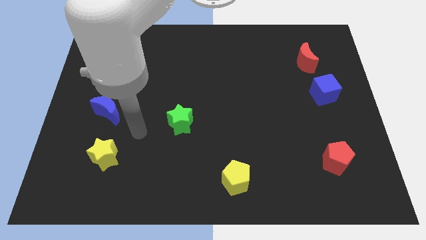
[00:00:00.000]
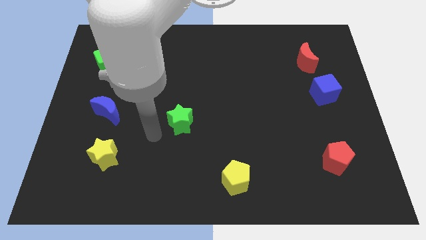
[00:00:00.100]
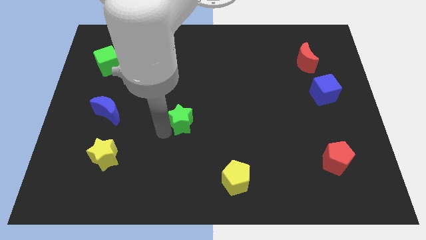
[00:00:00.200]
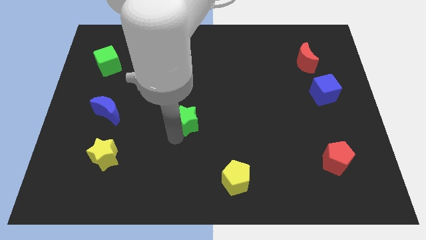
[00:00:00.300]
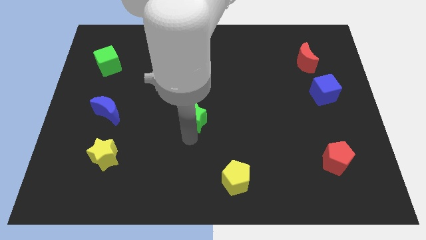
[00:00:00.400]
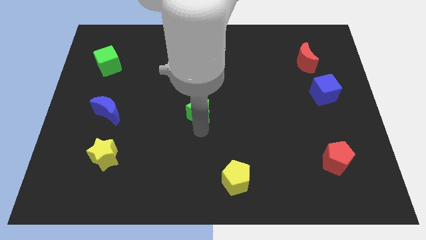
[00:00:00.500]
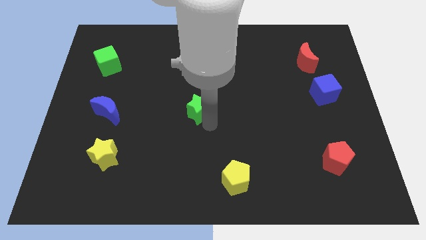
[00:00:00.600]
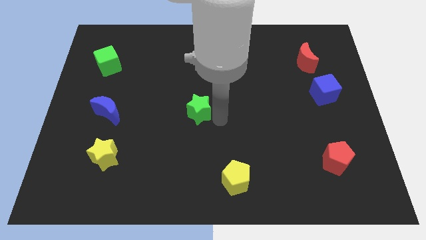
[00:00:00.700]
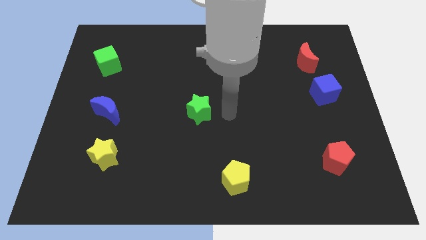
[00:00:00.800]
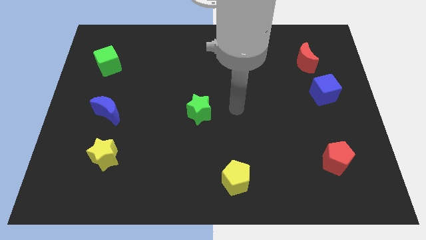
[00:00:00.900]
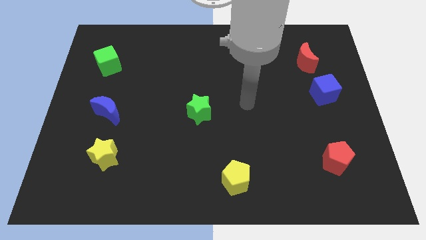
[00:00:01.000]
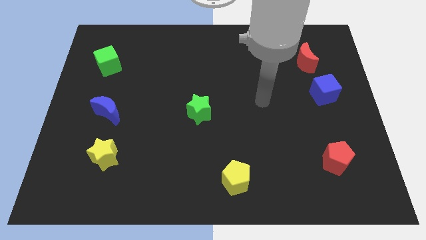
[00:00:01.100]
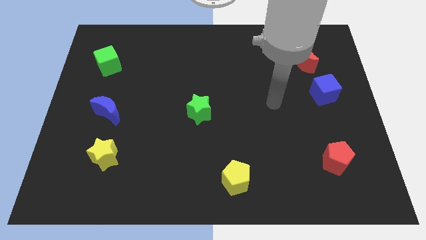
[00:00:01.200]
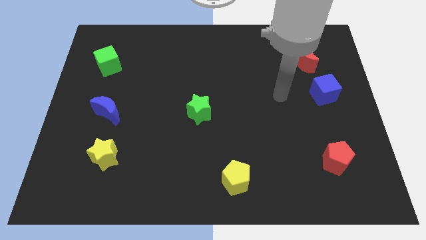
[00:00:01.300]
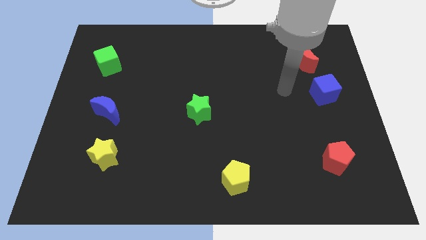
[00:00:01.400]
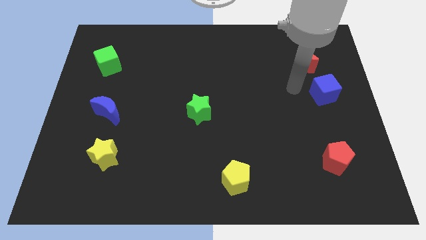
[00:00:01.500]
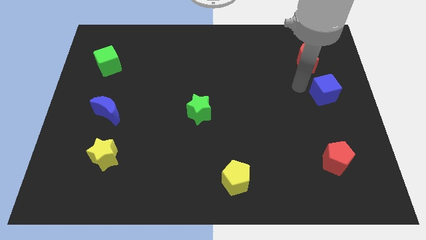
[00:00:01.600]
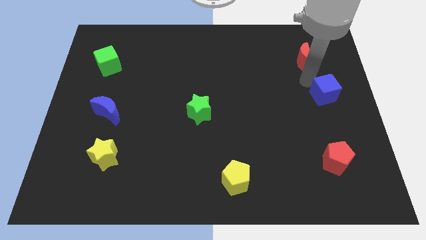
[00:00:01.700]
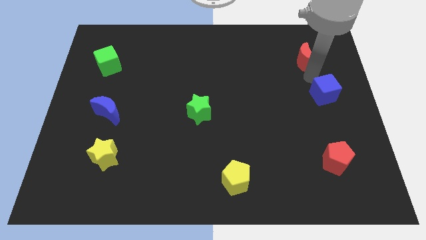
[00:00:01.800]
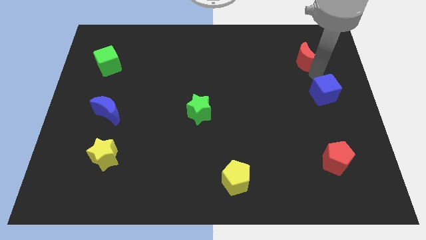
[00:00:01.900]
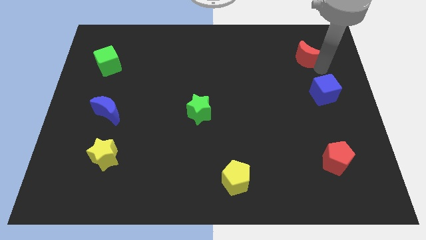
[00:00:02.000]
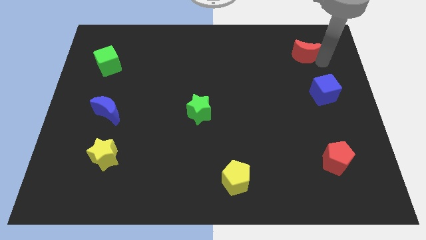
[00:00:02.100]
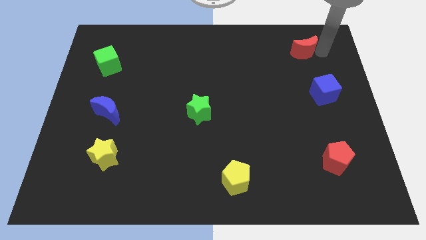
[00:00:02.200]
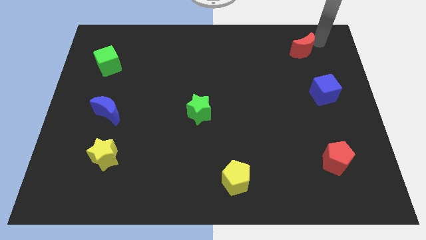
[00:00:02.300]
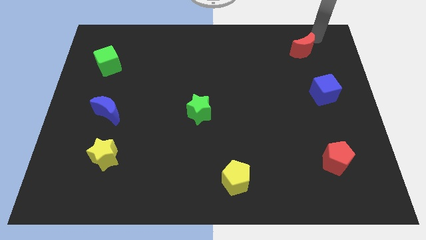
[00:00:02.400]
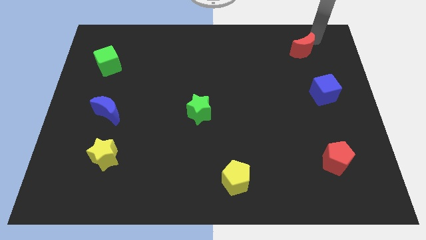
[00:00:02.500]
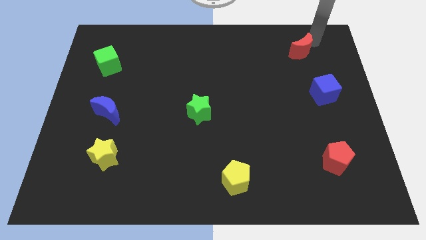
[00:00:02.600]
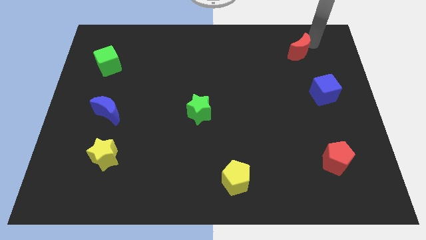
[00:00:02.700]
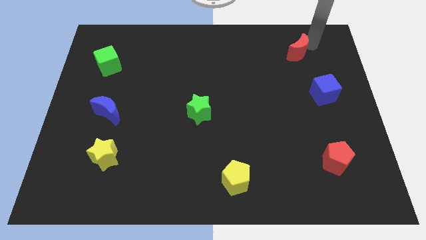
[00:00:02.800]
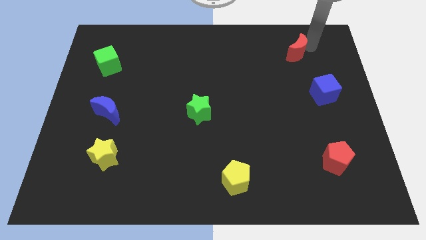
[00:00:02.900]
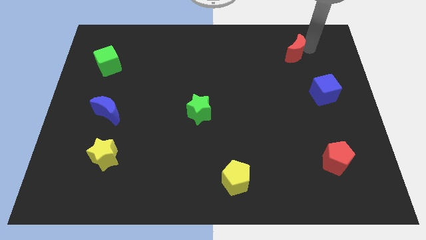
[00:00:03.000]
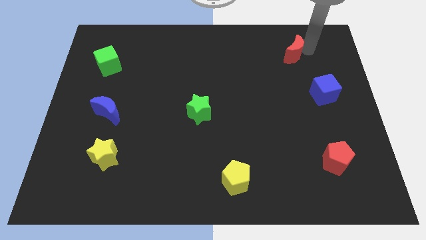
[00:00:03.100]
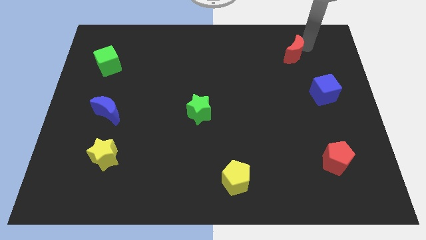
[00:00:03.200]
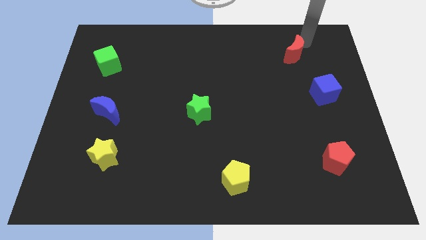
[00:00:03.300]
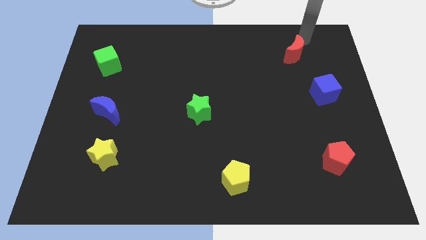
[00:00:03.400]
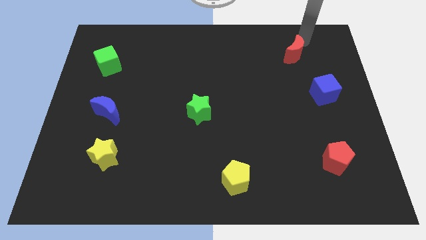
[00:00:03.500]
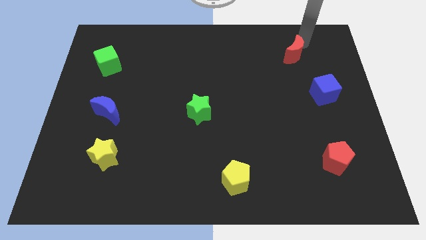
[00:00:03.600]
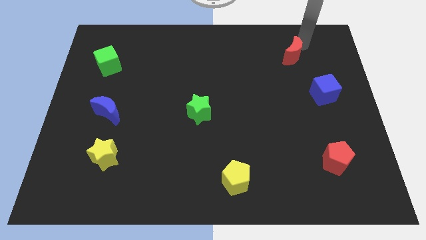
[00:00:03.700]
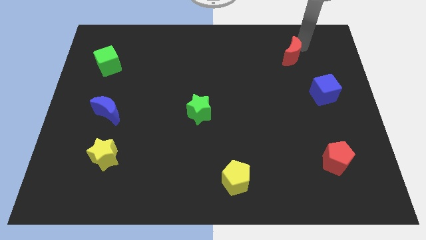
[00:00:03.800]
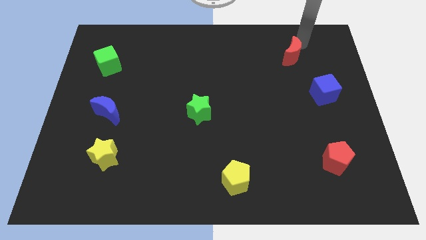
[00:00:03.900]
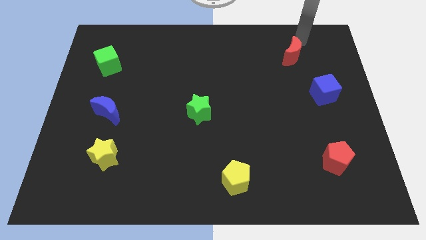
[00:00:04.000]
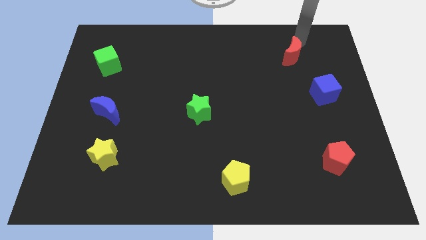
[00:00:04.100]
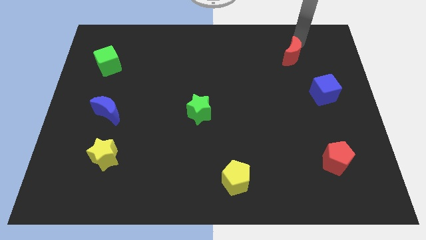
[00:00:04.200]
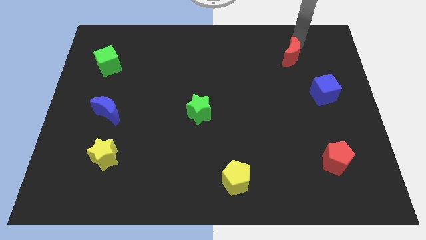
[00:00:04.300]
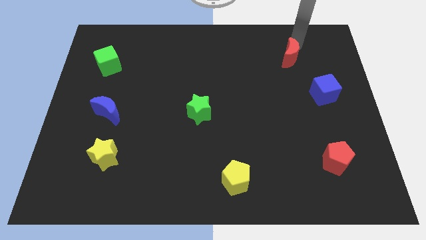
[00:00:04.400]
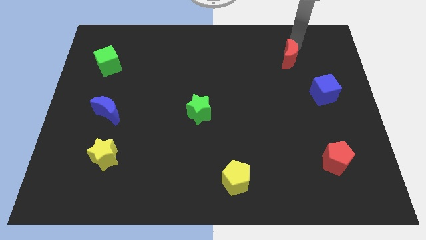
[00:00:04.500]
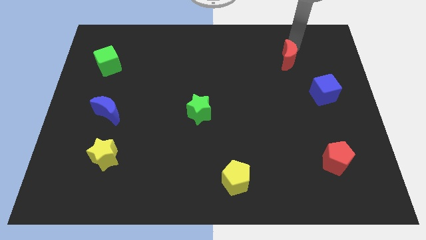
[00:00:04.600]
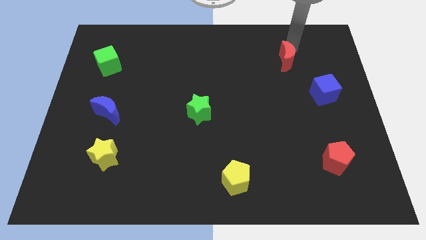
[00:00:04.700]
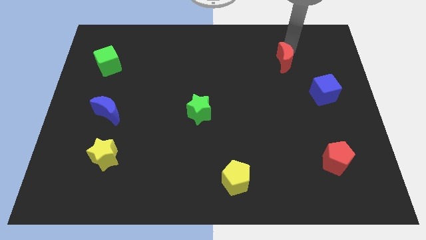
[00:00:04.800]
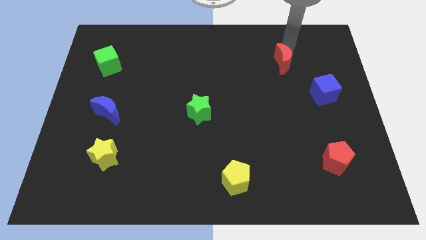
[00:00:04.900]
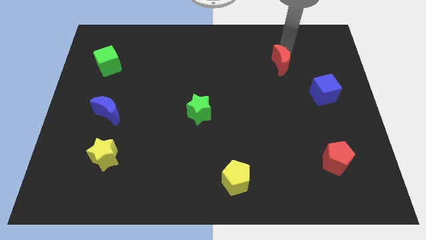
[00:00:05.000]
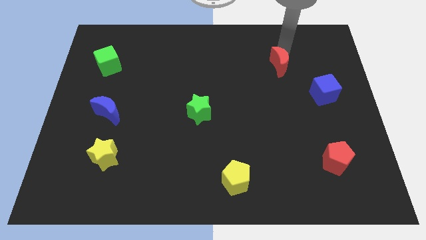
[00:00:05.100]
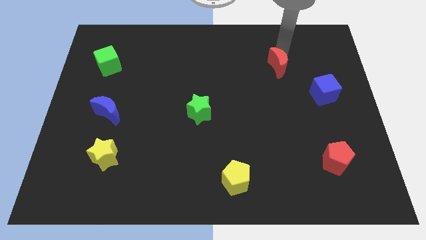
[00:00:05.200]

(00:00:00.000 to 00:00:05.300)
move the red moon a bit to the left

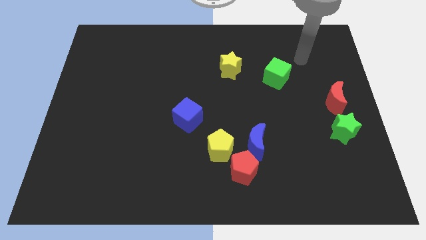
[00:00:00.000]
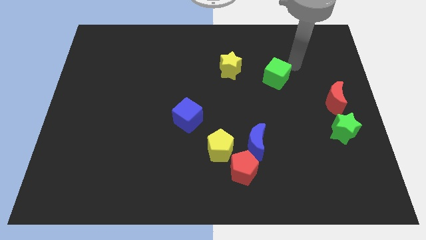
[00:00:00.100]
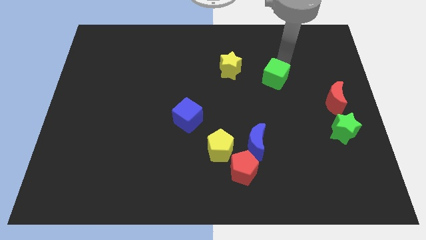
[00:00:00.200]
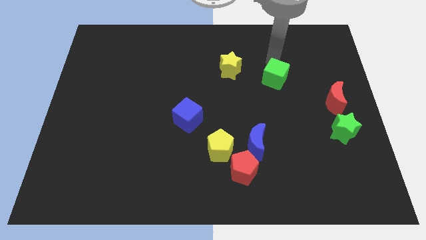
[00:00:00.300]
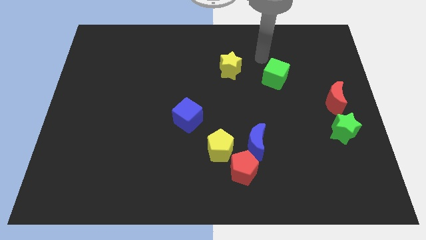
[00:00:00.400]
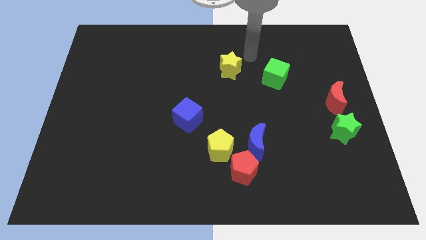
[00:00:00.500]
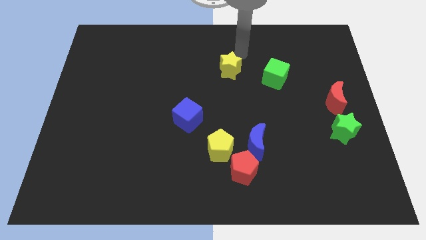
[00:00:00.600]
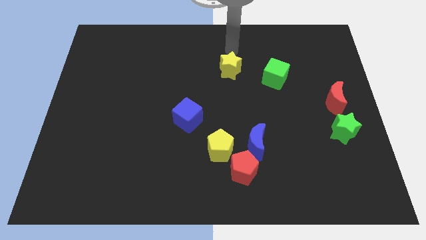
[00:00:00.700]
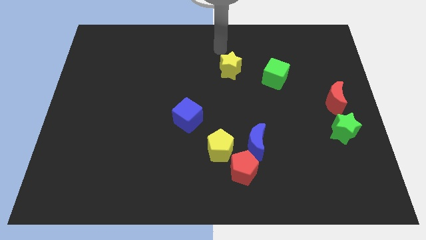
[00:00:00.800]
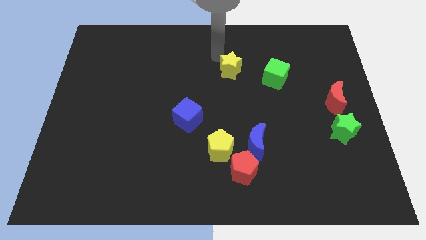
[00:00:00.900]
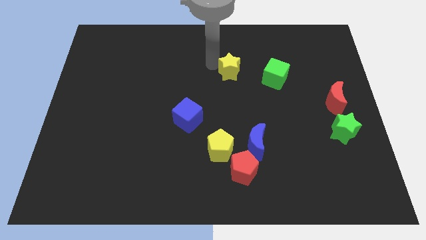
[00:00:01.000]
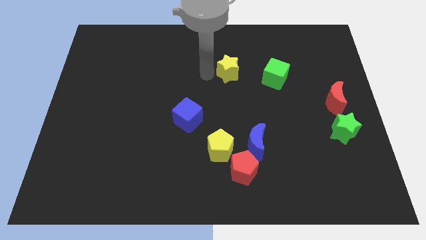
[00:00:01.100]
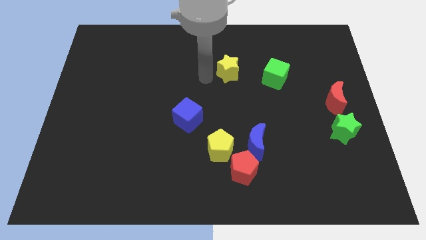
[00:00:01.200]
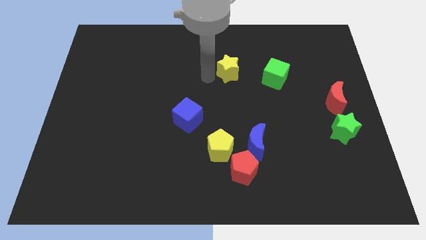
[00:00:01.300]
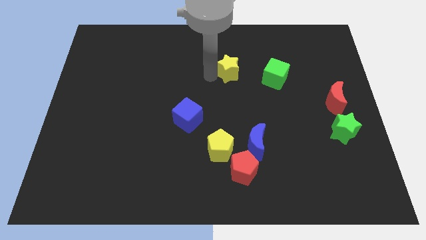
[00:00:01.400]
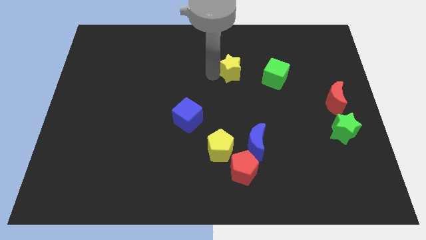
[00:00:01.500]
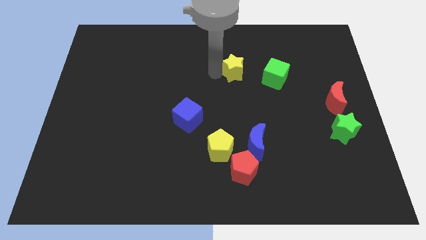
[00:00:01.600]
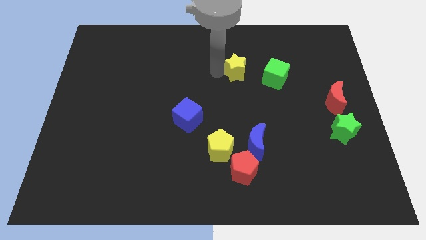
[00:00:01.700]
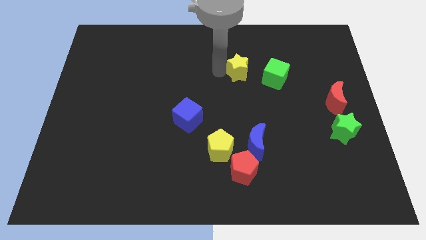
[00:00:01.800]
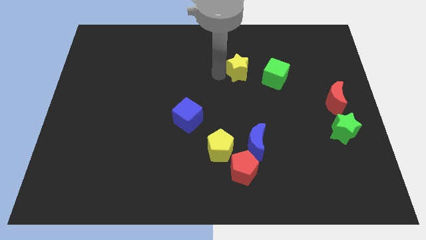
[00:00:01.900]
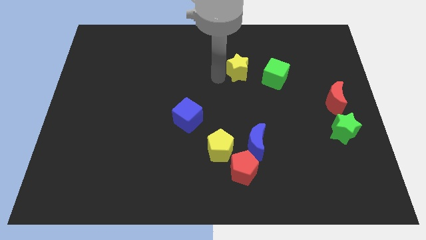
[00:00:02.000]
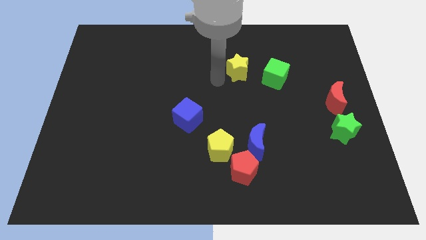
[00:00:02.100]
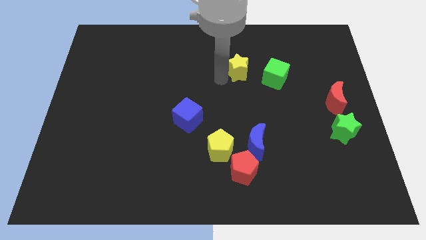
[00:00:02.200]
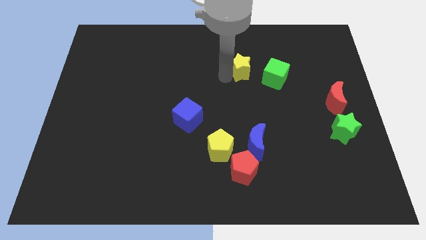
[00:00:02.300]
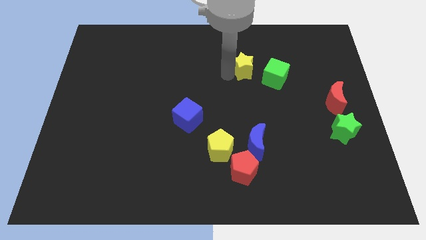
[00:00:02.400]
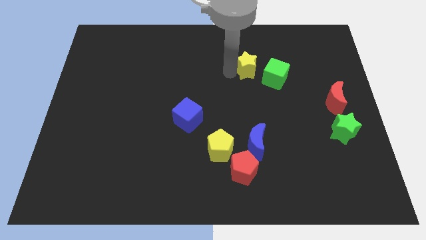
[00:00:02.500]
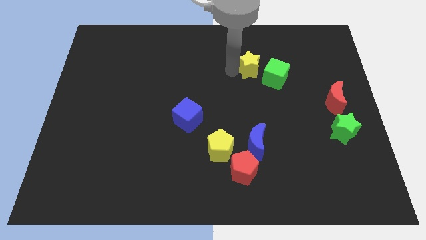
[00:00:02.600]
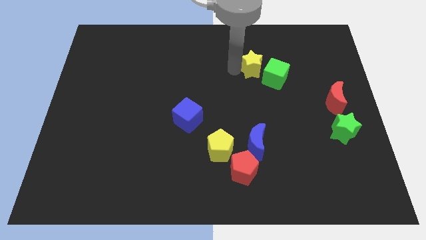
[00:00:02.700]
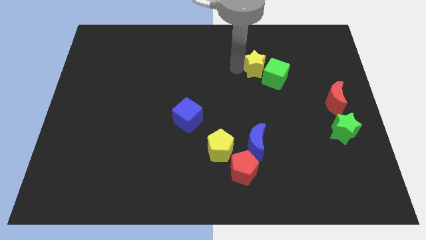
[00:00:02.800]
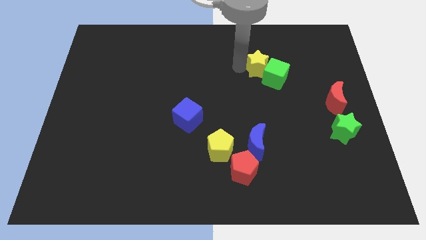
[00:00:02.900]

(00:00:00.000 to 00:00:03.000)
slightly slide the yellow star to the right
